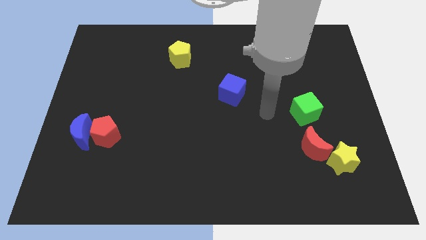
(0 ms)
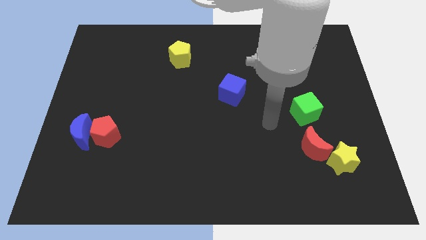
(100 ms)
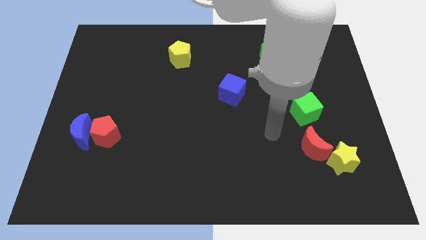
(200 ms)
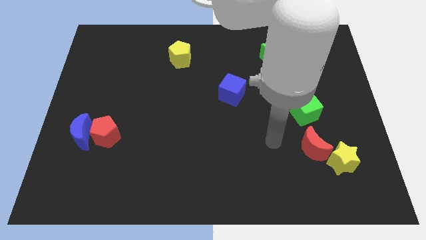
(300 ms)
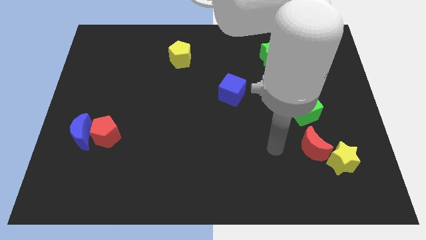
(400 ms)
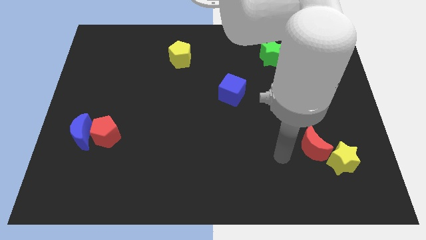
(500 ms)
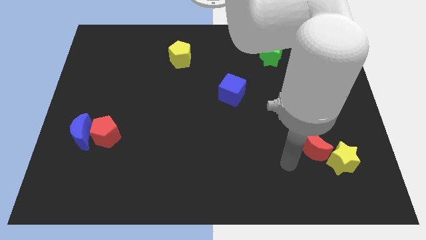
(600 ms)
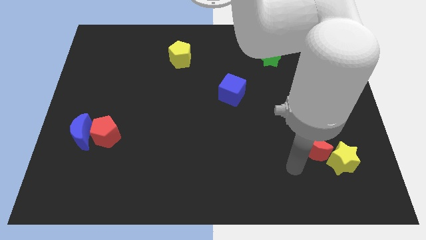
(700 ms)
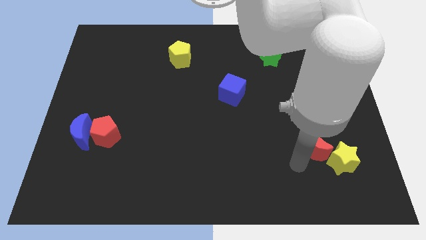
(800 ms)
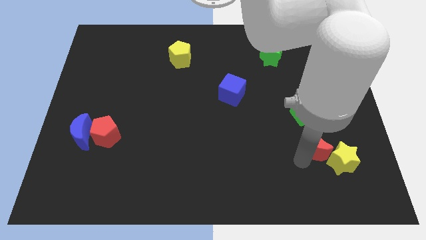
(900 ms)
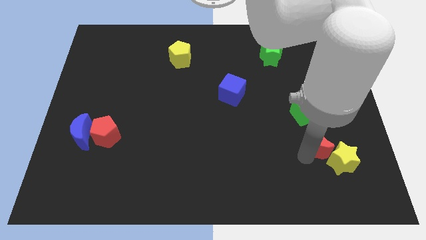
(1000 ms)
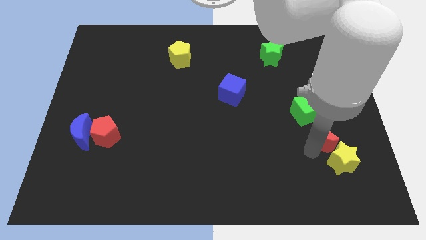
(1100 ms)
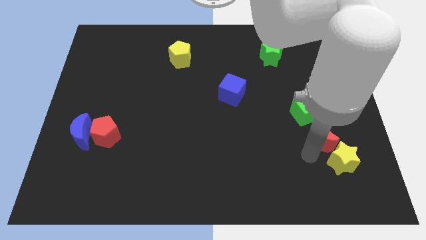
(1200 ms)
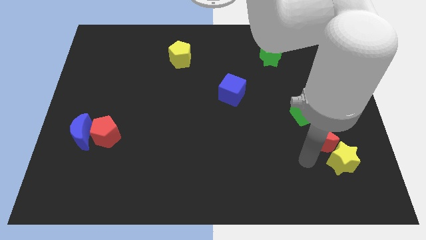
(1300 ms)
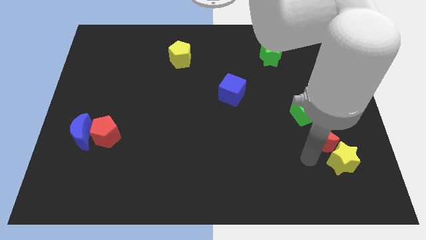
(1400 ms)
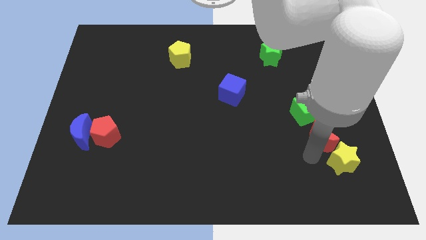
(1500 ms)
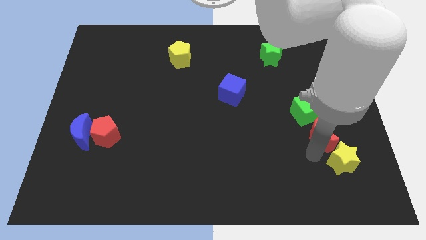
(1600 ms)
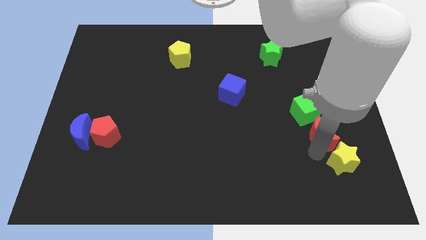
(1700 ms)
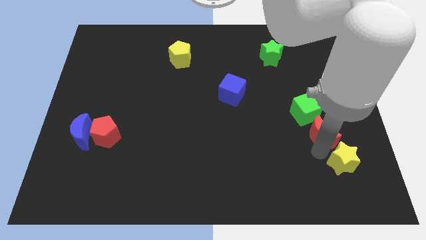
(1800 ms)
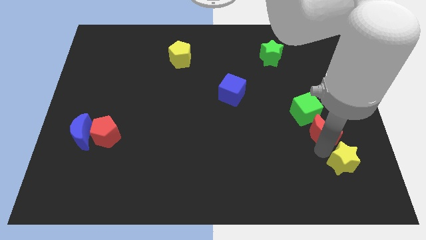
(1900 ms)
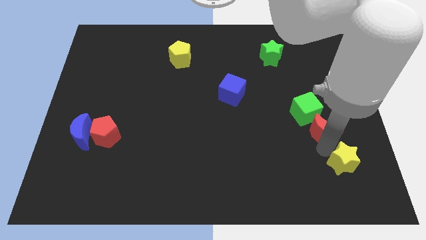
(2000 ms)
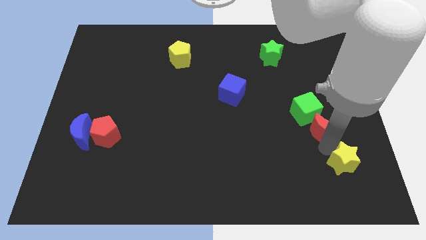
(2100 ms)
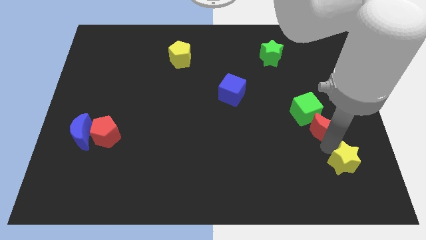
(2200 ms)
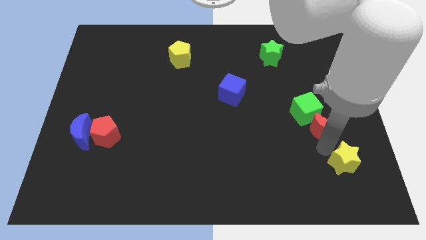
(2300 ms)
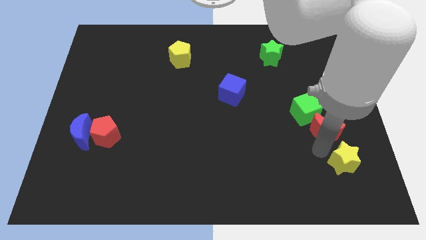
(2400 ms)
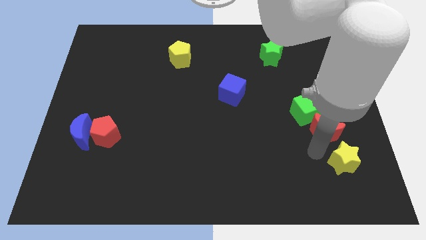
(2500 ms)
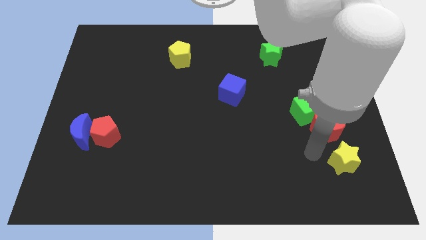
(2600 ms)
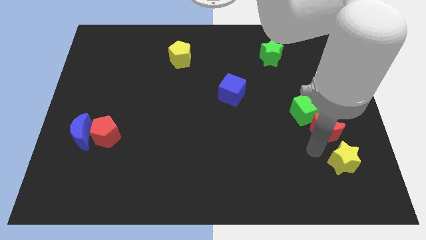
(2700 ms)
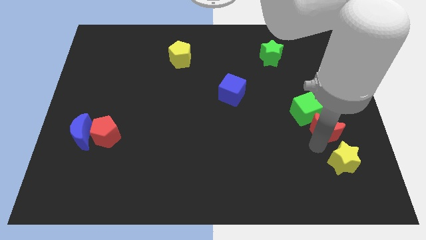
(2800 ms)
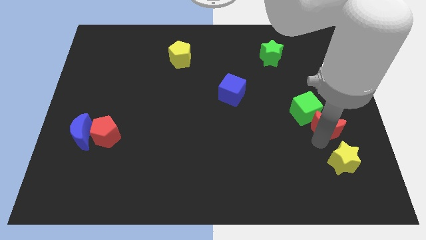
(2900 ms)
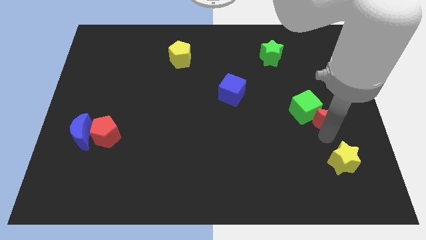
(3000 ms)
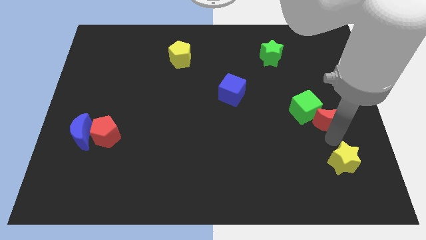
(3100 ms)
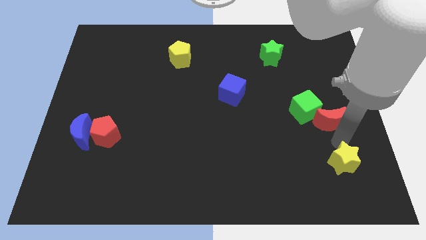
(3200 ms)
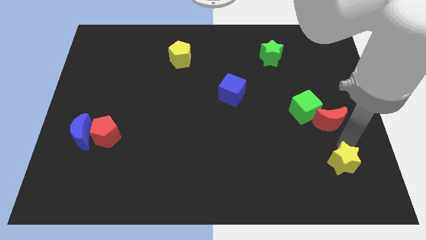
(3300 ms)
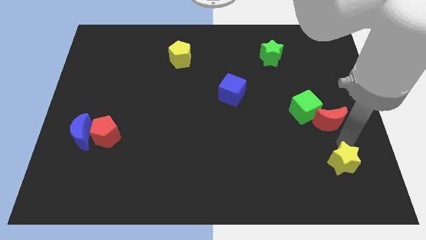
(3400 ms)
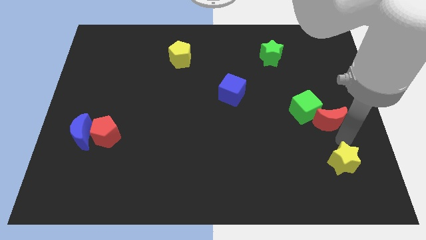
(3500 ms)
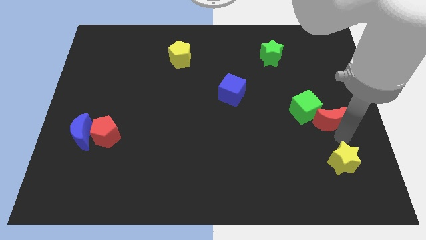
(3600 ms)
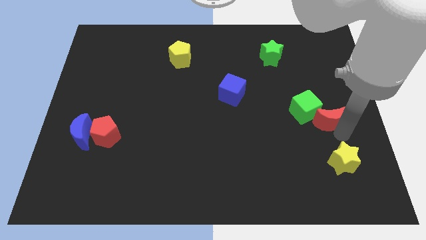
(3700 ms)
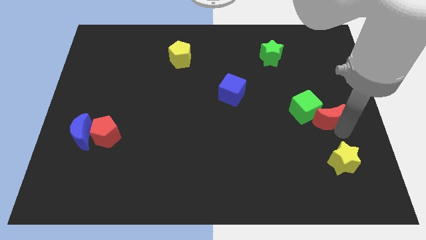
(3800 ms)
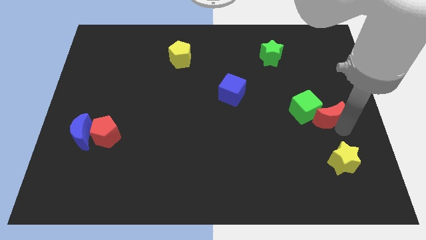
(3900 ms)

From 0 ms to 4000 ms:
push the red moon a little bit up

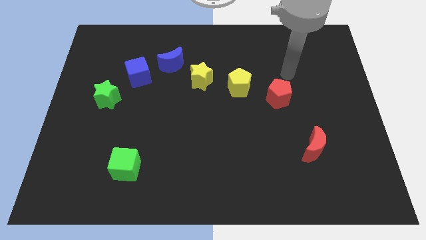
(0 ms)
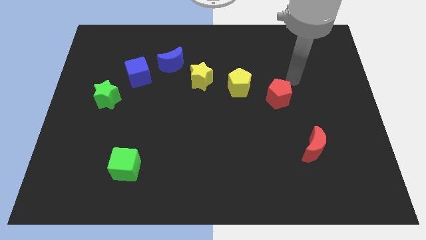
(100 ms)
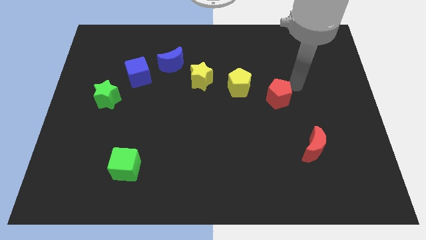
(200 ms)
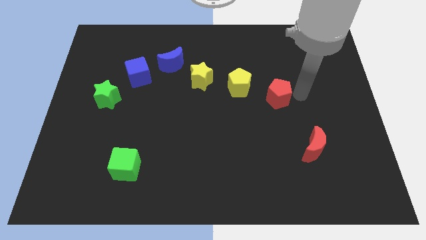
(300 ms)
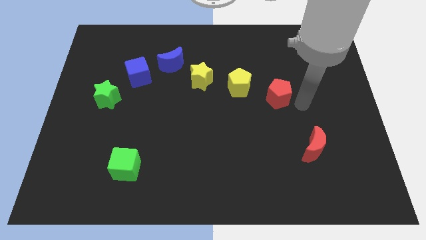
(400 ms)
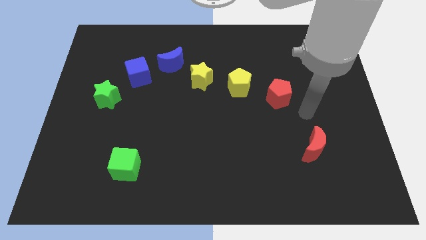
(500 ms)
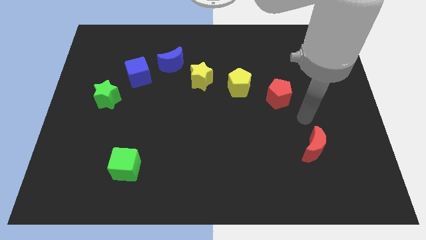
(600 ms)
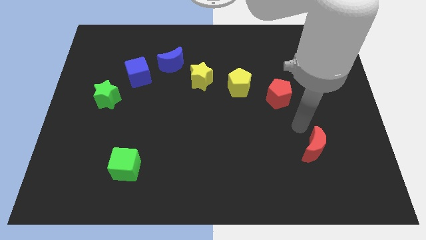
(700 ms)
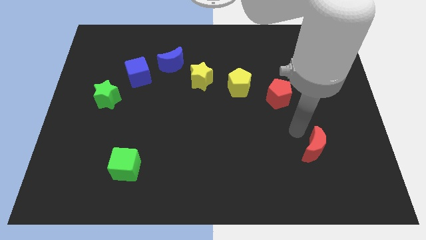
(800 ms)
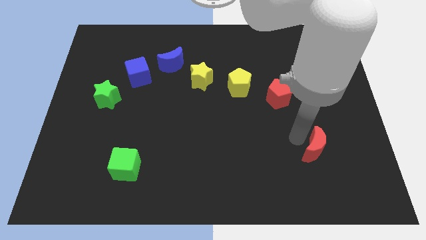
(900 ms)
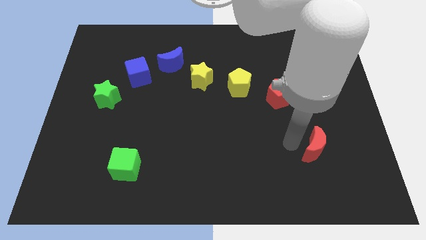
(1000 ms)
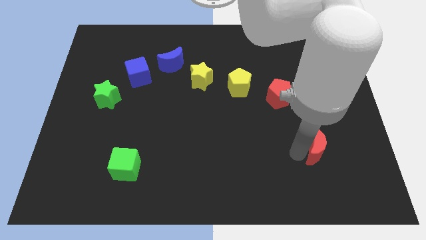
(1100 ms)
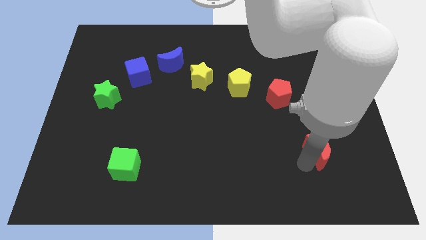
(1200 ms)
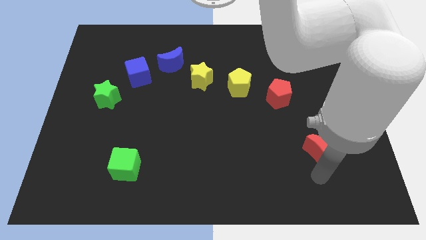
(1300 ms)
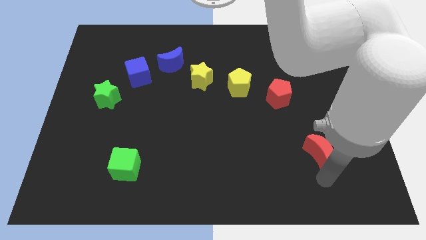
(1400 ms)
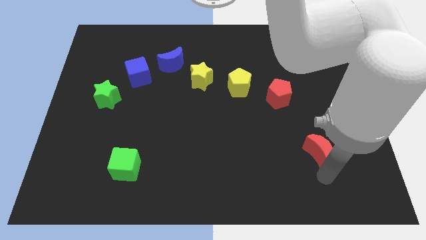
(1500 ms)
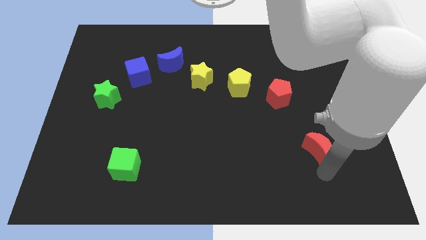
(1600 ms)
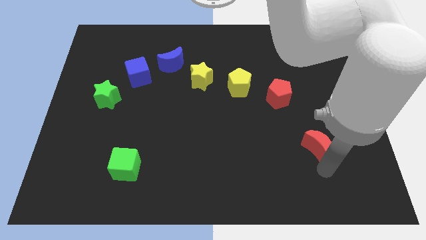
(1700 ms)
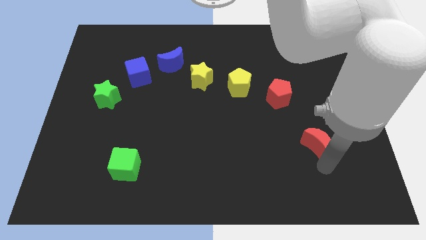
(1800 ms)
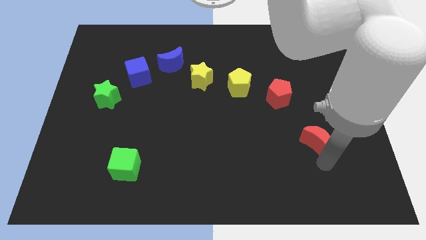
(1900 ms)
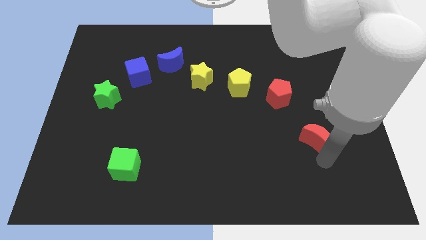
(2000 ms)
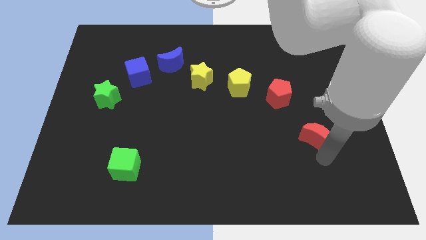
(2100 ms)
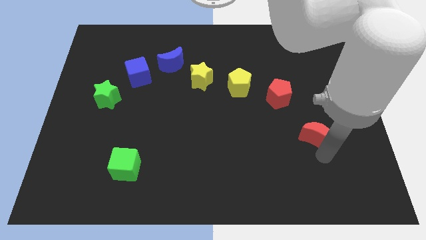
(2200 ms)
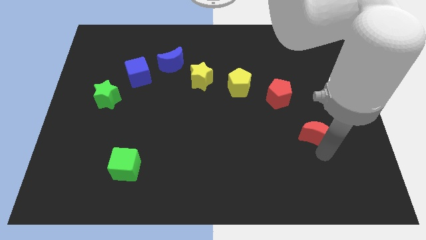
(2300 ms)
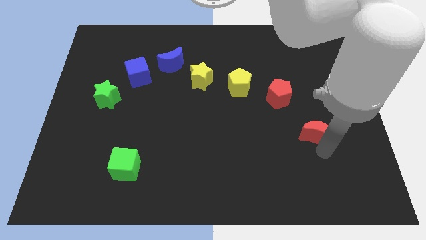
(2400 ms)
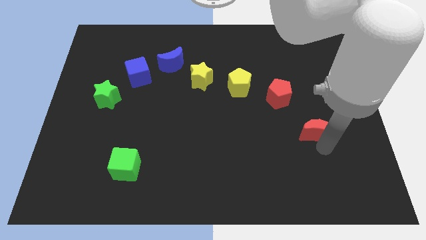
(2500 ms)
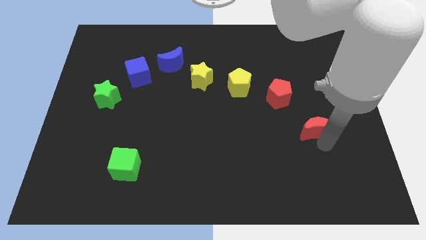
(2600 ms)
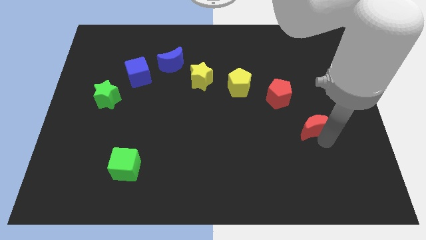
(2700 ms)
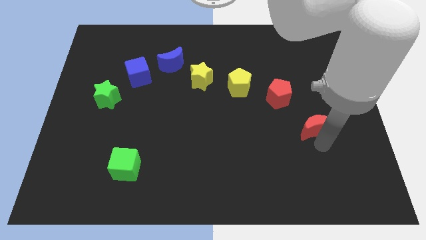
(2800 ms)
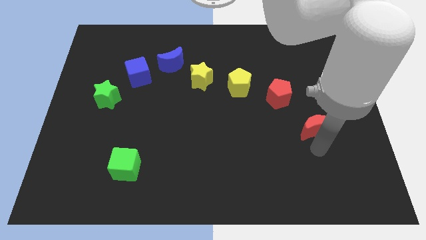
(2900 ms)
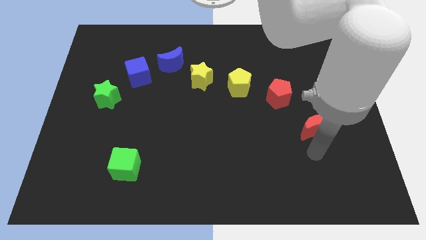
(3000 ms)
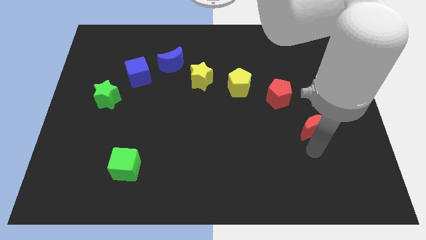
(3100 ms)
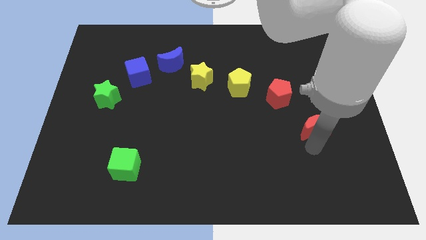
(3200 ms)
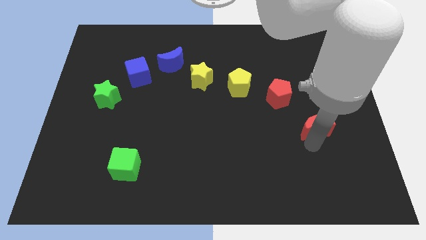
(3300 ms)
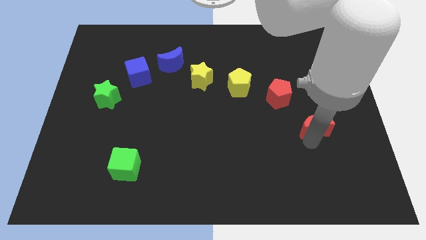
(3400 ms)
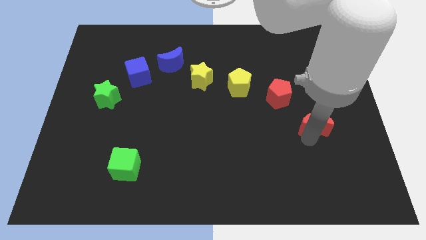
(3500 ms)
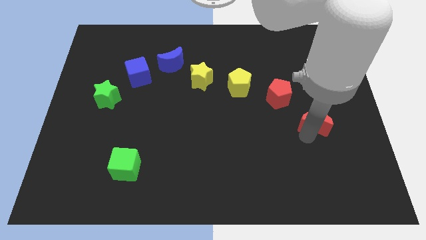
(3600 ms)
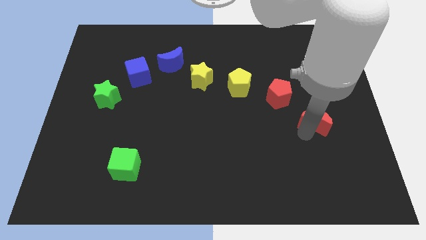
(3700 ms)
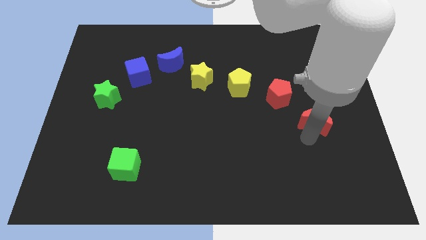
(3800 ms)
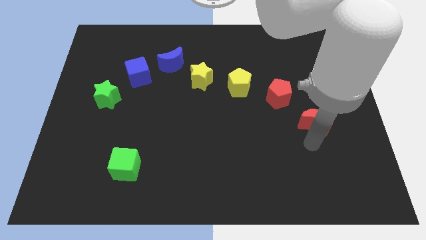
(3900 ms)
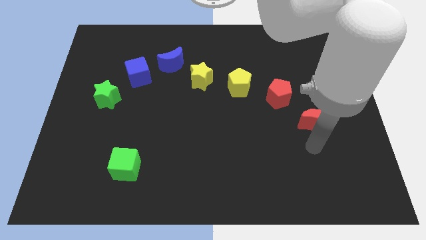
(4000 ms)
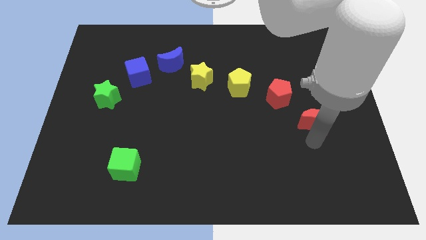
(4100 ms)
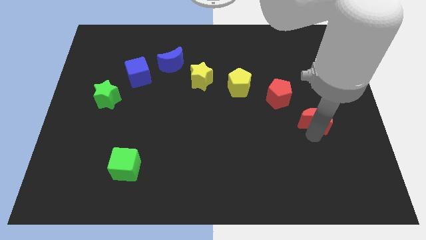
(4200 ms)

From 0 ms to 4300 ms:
slightly slide the red moon up
